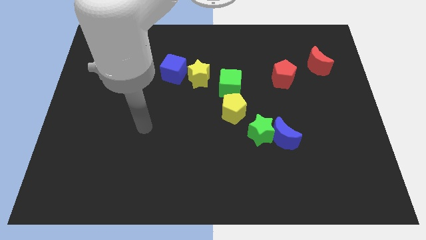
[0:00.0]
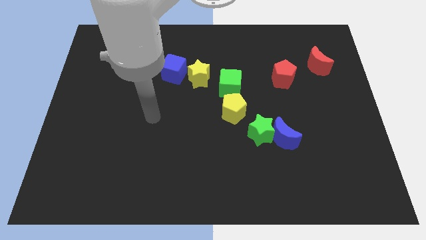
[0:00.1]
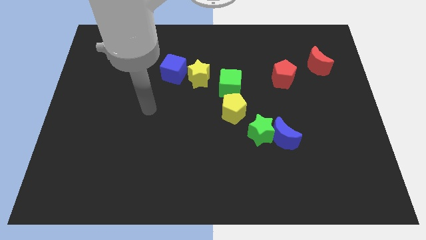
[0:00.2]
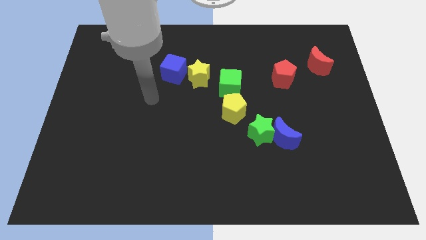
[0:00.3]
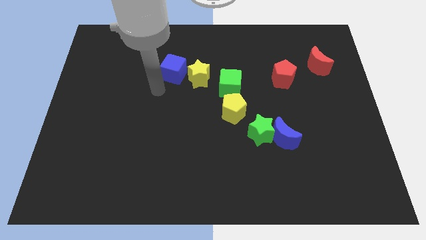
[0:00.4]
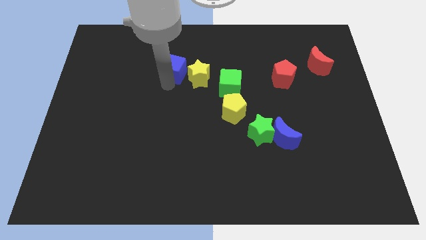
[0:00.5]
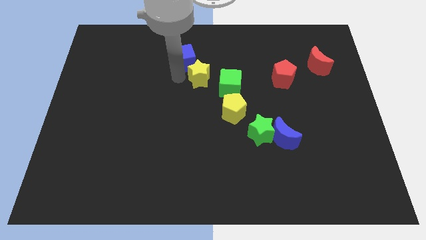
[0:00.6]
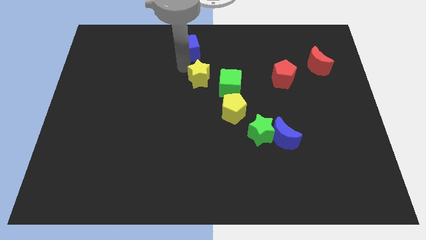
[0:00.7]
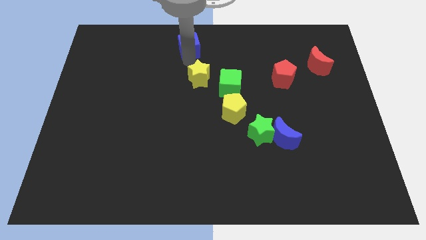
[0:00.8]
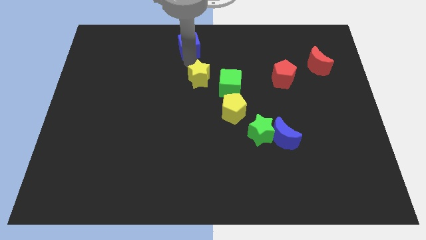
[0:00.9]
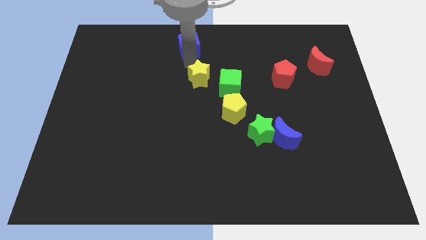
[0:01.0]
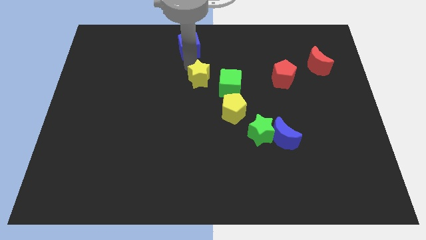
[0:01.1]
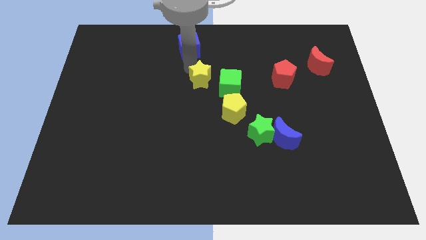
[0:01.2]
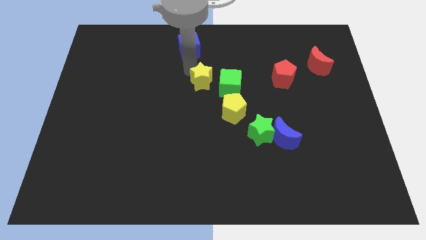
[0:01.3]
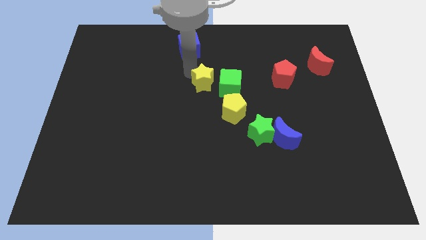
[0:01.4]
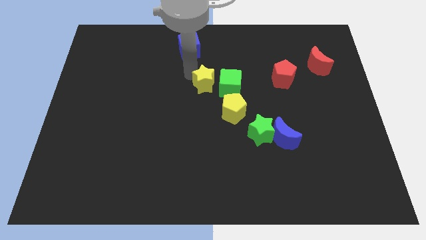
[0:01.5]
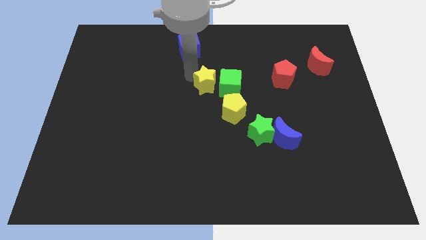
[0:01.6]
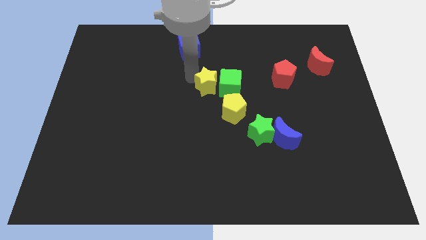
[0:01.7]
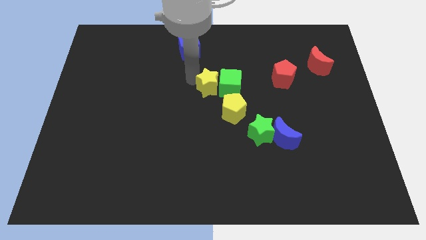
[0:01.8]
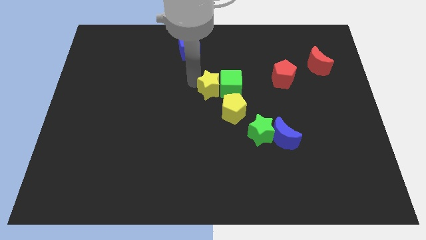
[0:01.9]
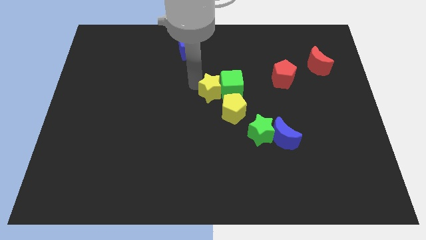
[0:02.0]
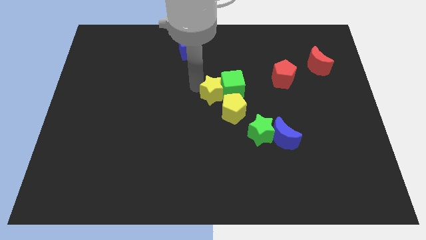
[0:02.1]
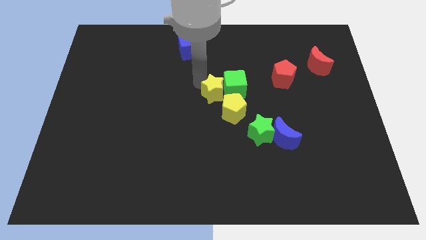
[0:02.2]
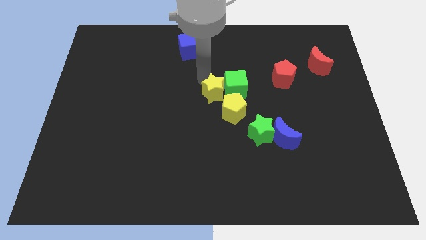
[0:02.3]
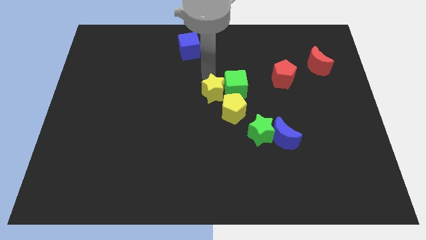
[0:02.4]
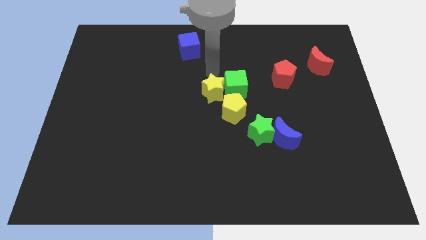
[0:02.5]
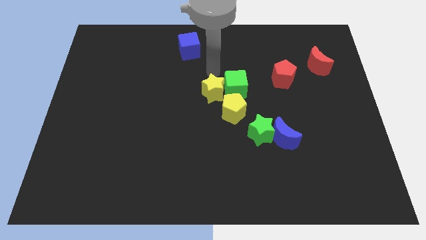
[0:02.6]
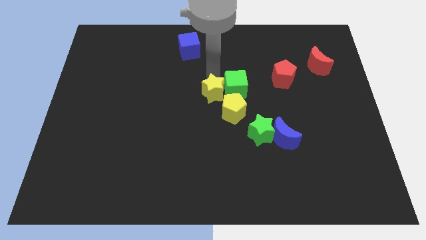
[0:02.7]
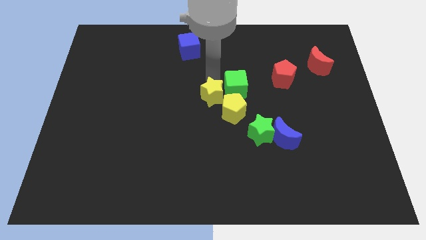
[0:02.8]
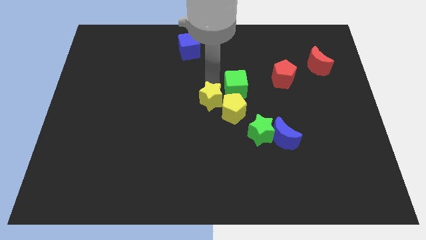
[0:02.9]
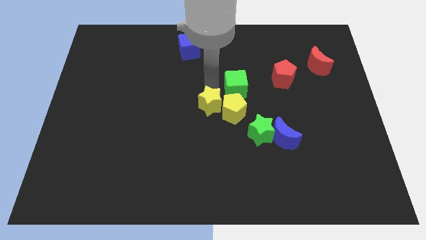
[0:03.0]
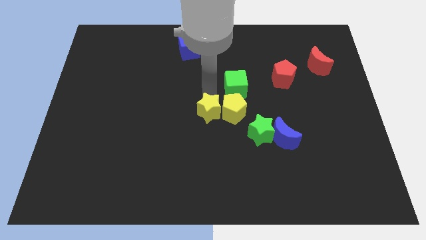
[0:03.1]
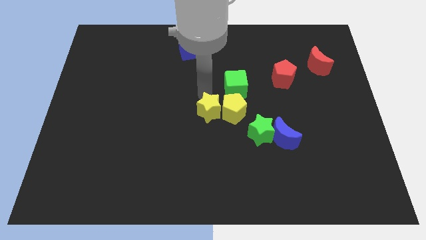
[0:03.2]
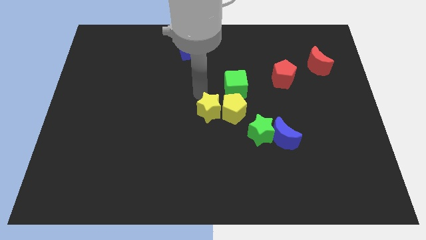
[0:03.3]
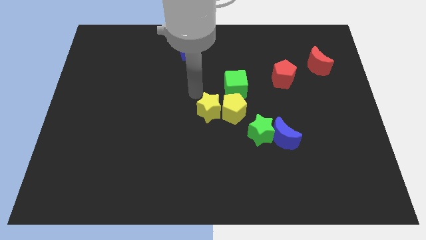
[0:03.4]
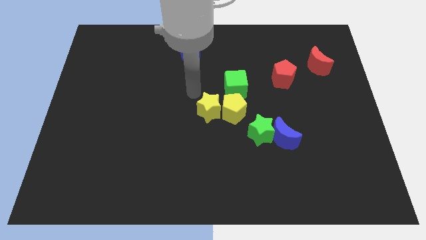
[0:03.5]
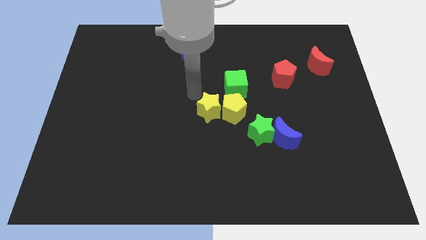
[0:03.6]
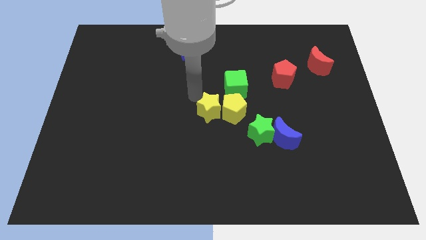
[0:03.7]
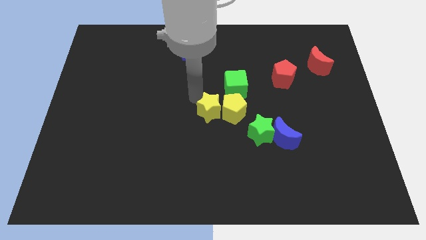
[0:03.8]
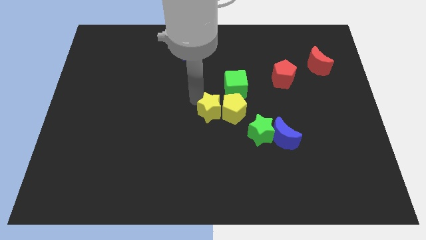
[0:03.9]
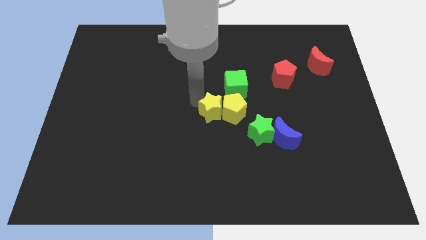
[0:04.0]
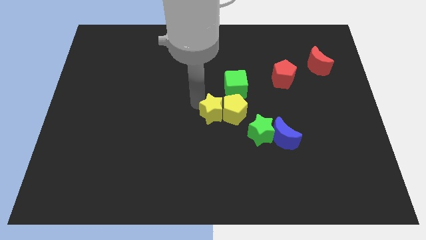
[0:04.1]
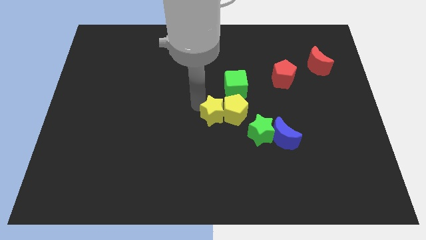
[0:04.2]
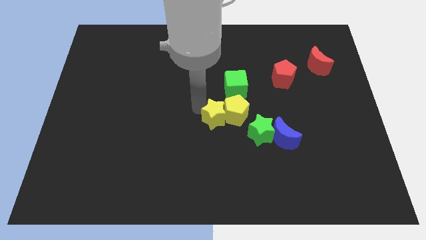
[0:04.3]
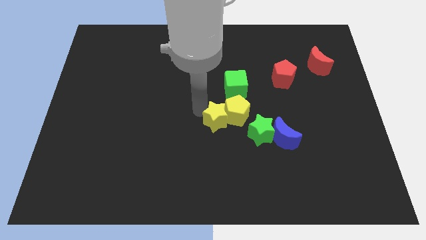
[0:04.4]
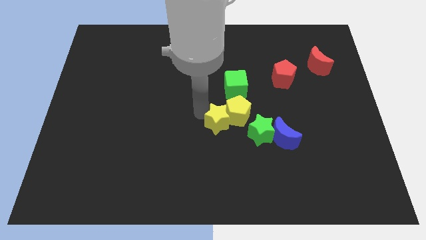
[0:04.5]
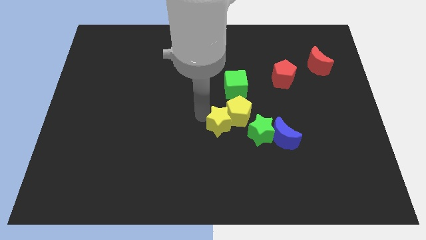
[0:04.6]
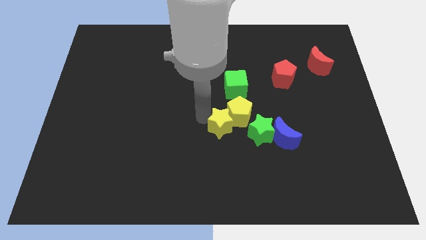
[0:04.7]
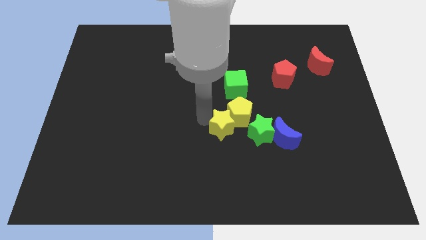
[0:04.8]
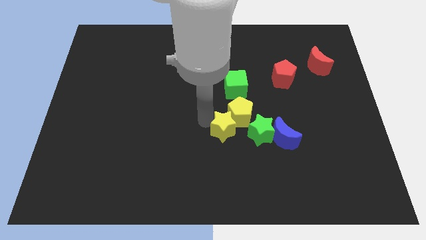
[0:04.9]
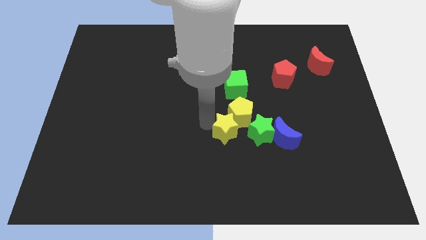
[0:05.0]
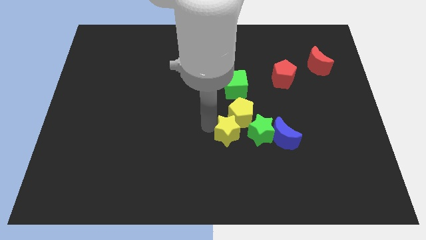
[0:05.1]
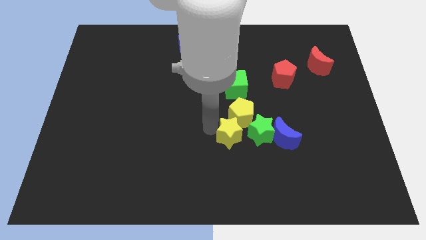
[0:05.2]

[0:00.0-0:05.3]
put the yellow star to the bottom left side of the green star

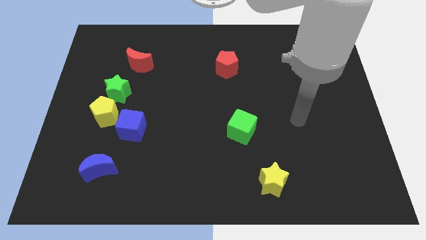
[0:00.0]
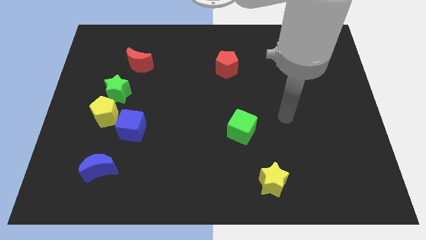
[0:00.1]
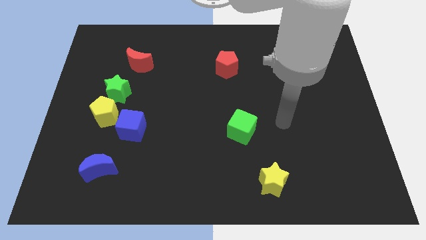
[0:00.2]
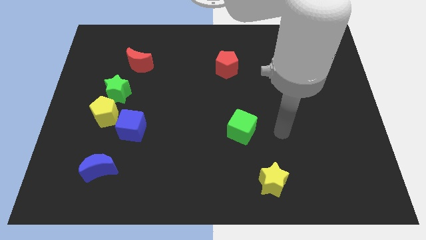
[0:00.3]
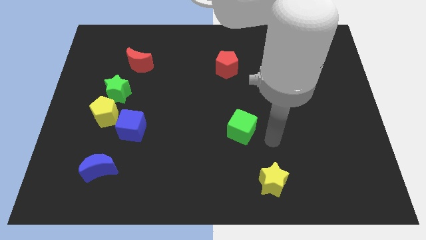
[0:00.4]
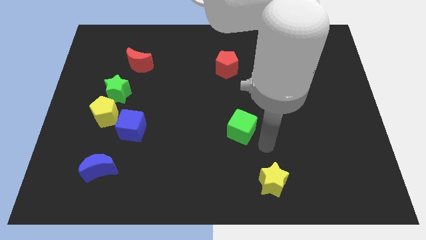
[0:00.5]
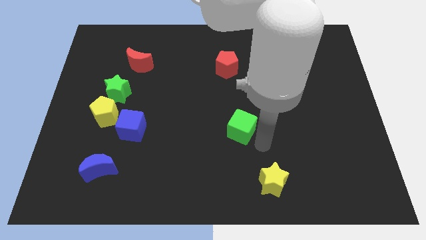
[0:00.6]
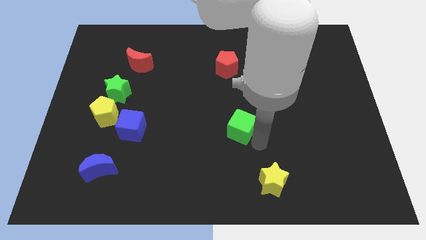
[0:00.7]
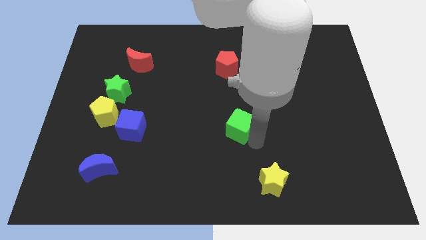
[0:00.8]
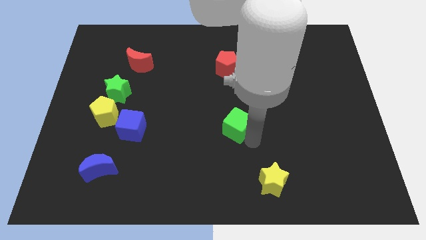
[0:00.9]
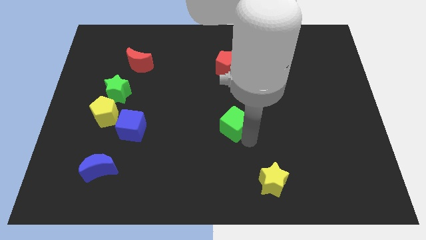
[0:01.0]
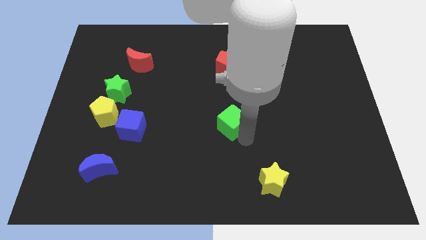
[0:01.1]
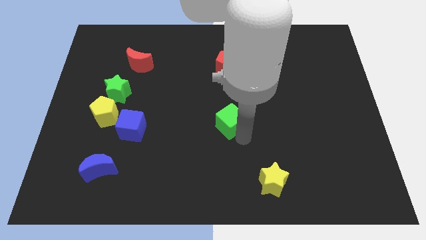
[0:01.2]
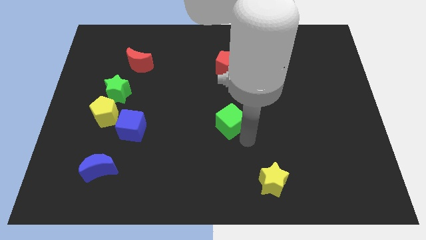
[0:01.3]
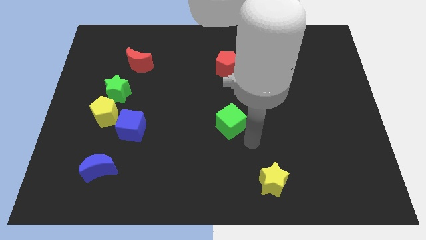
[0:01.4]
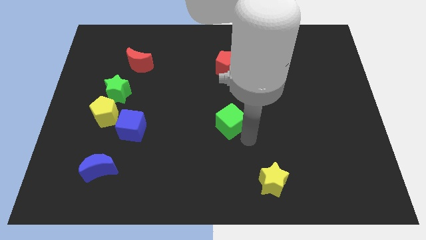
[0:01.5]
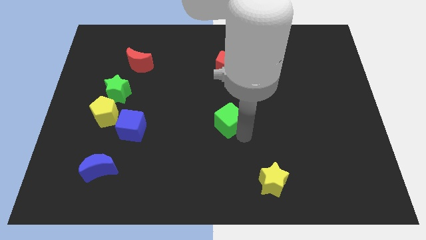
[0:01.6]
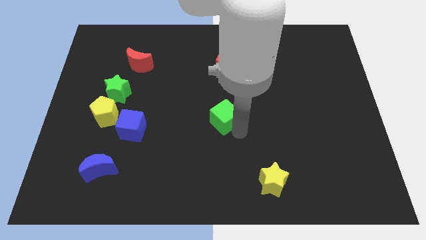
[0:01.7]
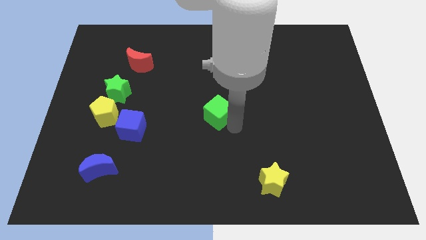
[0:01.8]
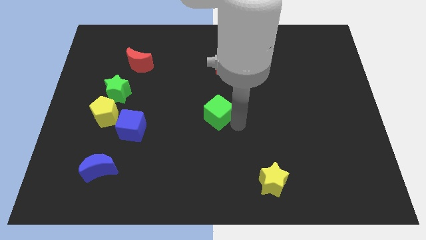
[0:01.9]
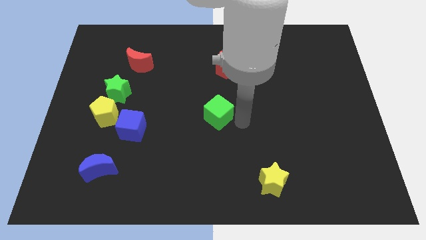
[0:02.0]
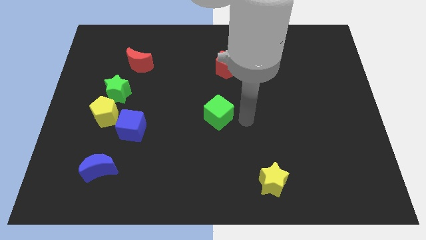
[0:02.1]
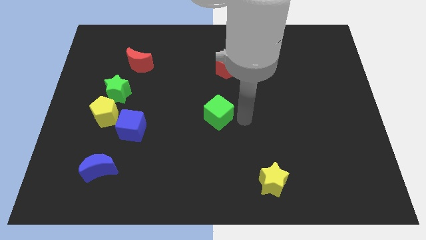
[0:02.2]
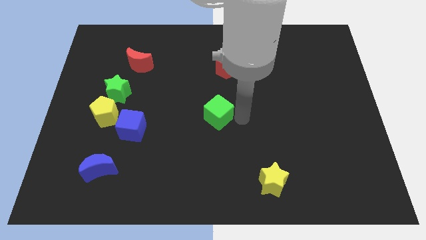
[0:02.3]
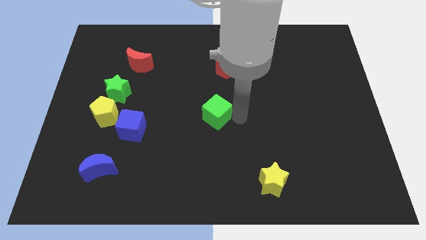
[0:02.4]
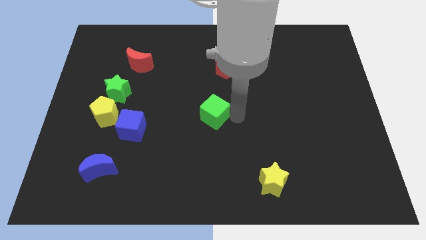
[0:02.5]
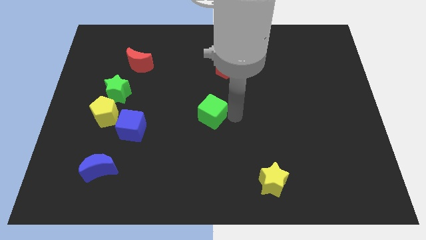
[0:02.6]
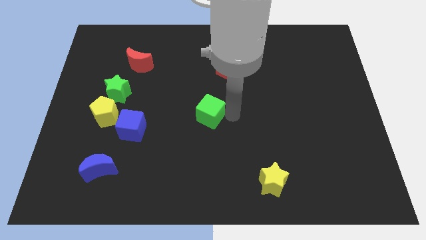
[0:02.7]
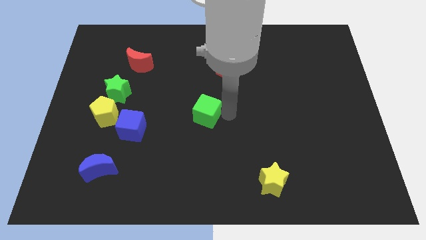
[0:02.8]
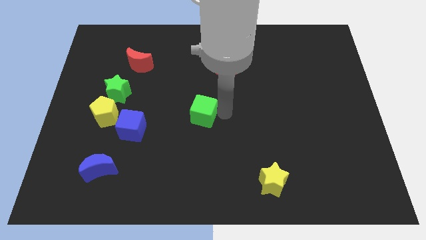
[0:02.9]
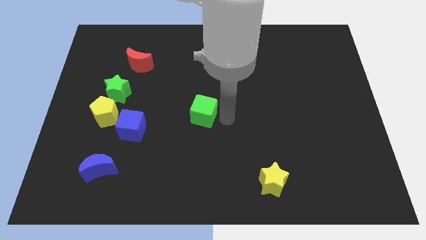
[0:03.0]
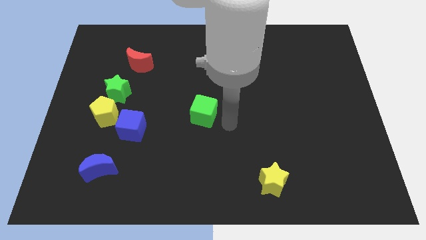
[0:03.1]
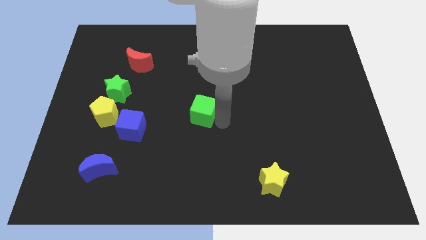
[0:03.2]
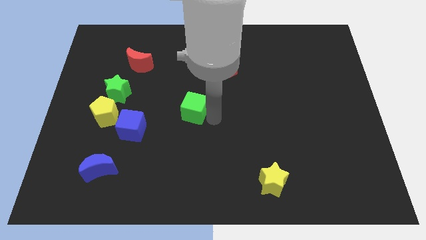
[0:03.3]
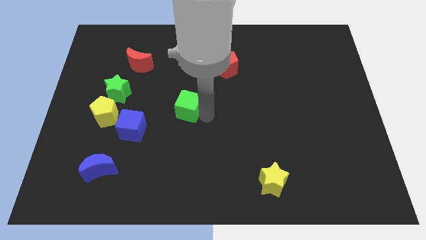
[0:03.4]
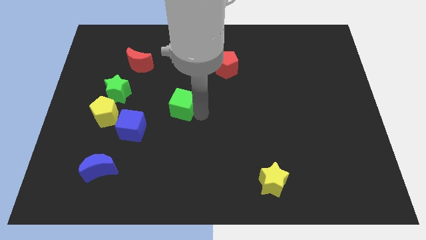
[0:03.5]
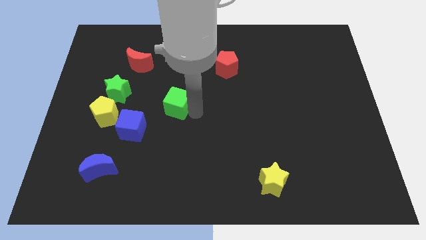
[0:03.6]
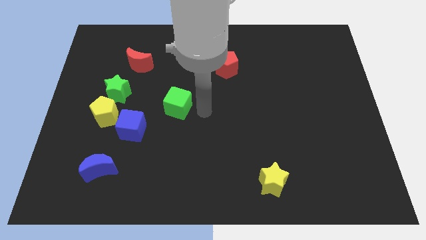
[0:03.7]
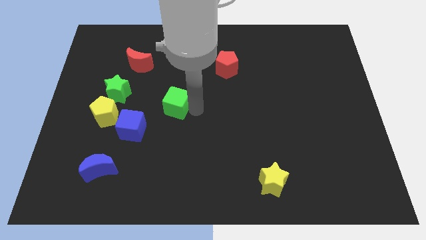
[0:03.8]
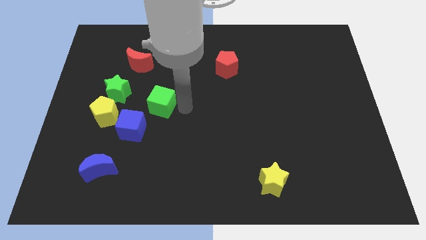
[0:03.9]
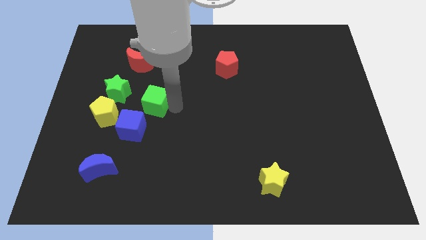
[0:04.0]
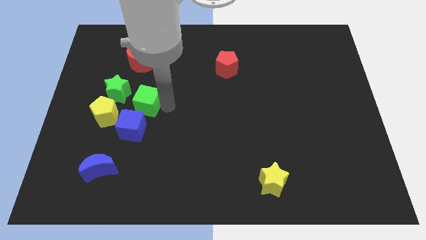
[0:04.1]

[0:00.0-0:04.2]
move the green cube diagonally up and to the right of the yellow pentagon
